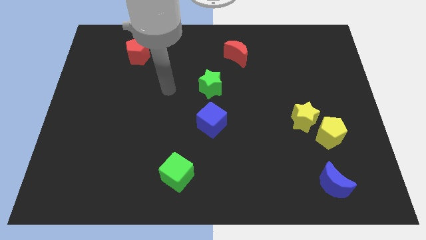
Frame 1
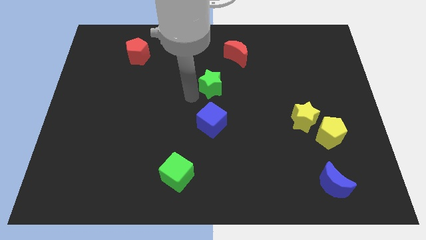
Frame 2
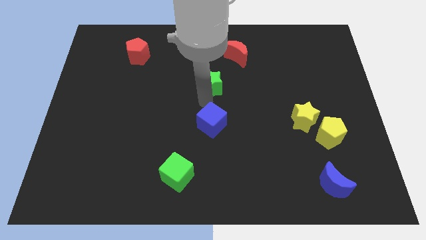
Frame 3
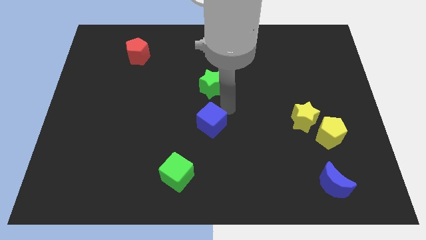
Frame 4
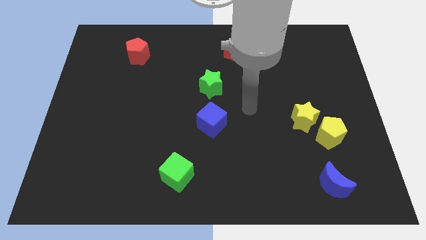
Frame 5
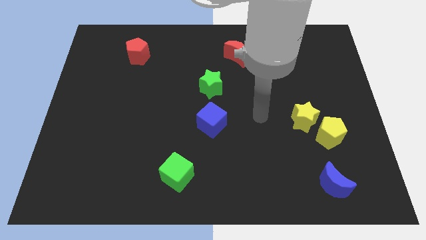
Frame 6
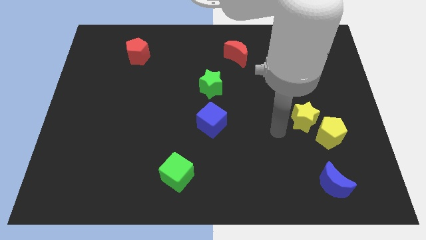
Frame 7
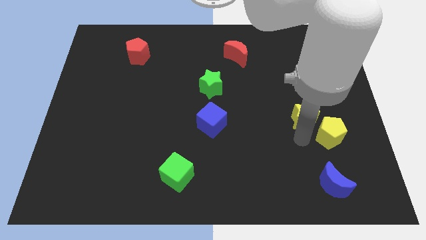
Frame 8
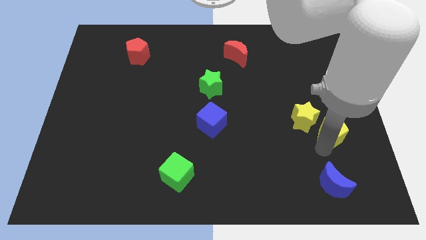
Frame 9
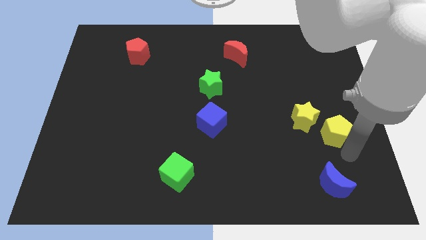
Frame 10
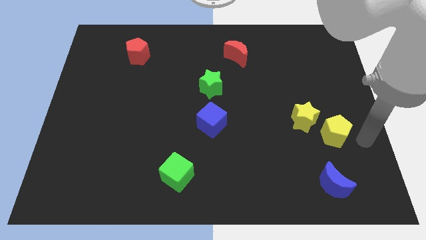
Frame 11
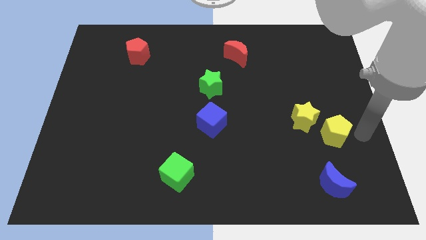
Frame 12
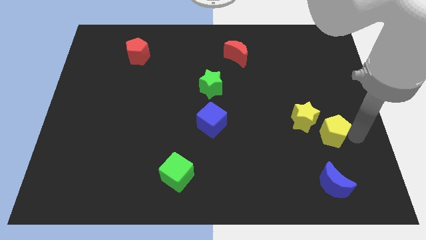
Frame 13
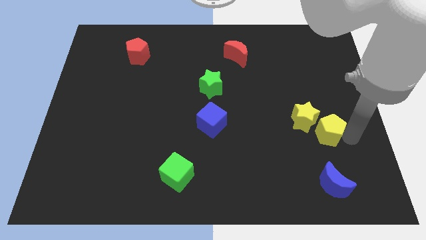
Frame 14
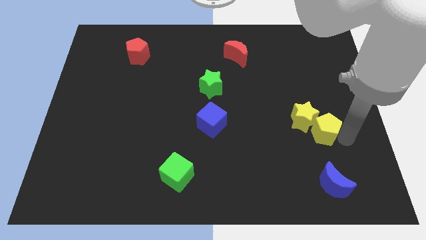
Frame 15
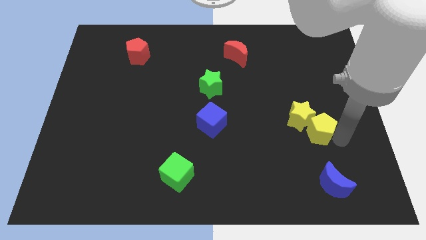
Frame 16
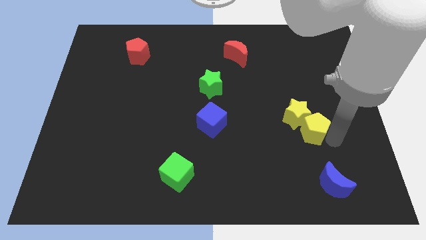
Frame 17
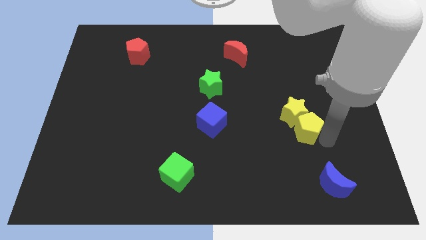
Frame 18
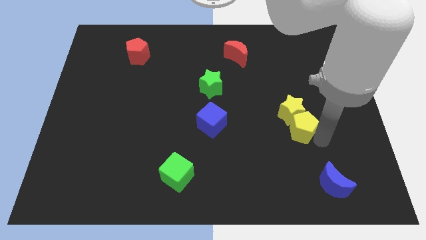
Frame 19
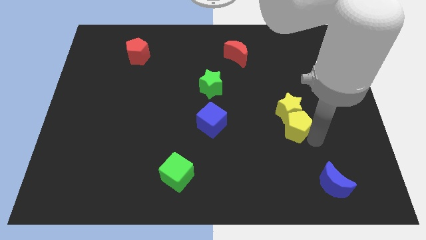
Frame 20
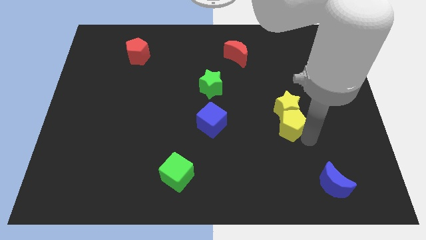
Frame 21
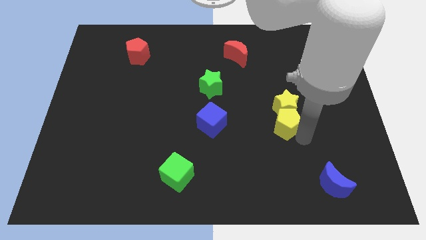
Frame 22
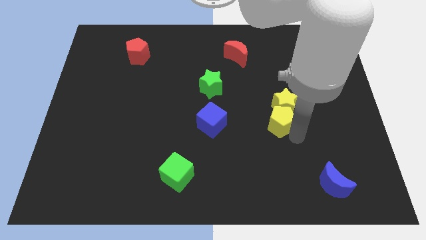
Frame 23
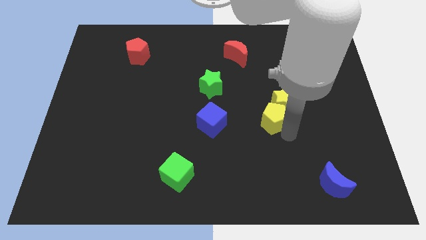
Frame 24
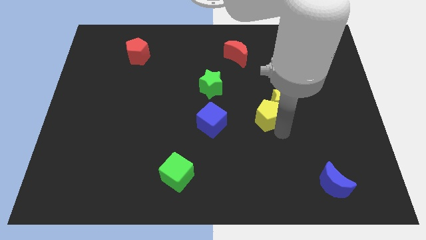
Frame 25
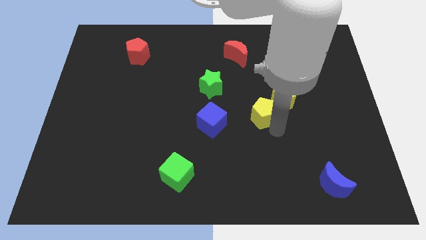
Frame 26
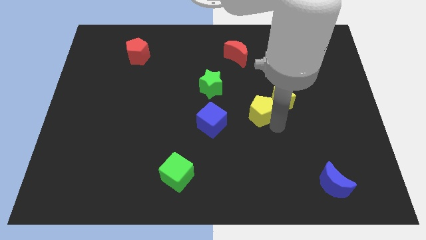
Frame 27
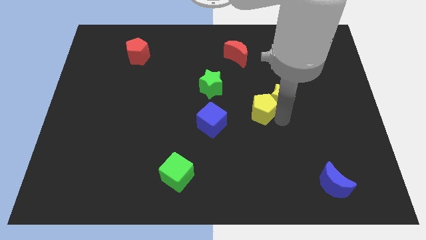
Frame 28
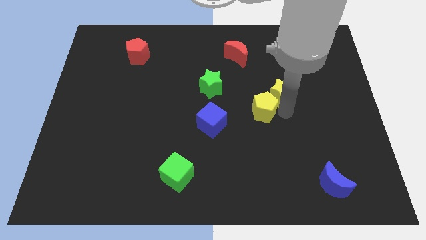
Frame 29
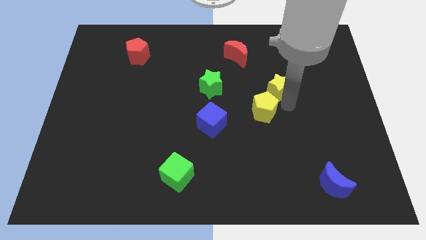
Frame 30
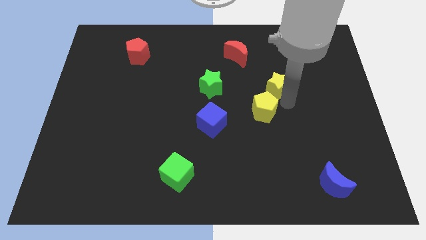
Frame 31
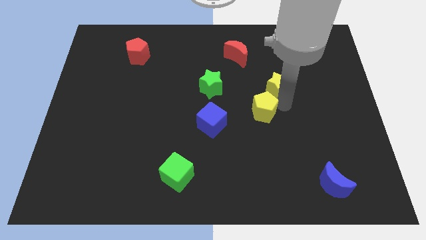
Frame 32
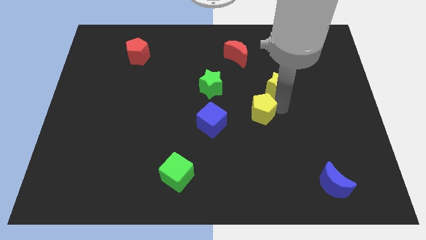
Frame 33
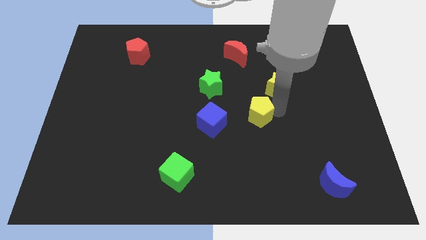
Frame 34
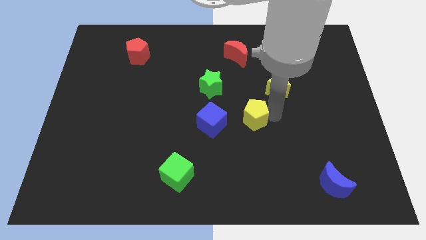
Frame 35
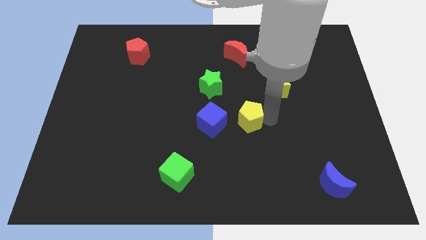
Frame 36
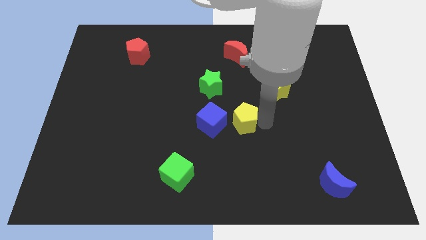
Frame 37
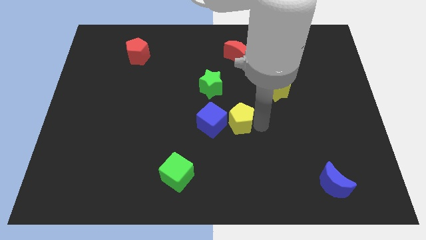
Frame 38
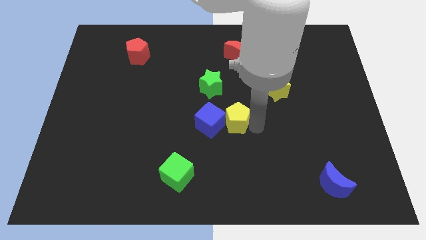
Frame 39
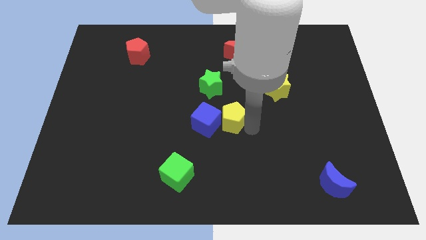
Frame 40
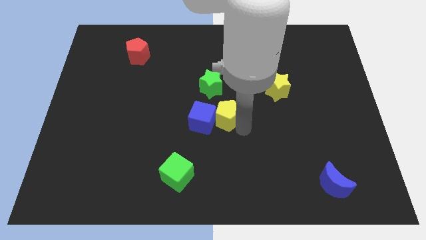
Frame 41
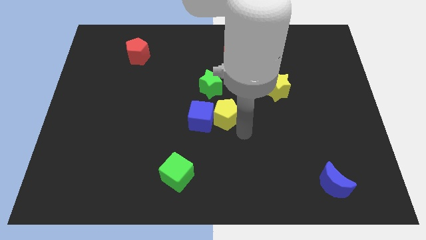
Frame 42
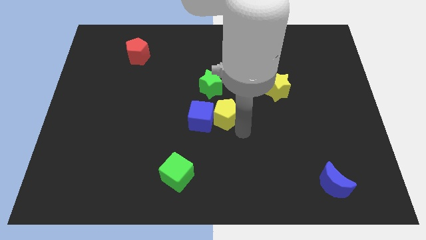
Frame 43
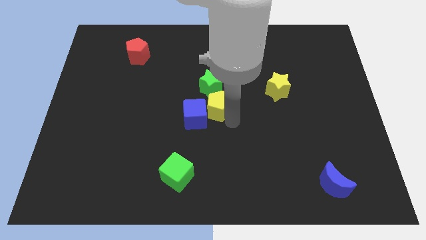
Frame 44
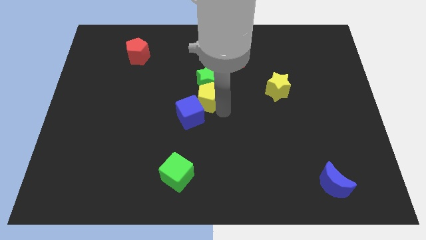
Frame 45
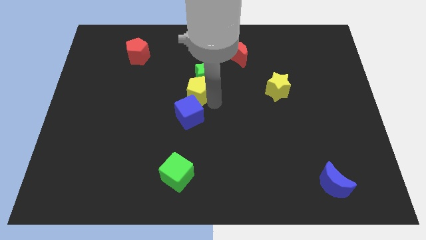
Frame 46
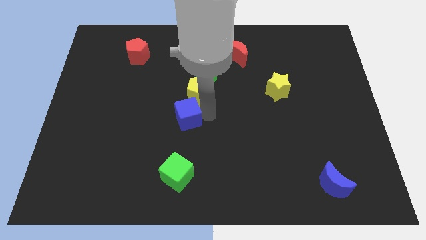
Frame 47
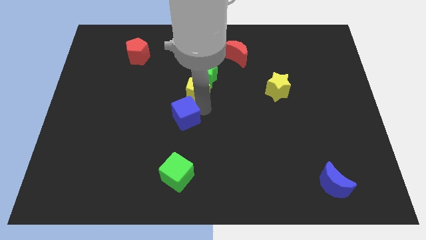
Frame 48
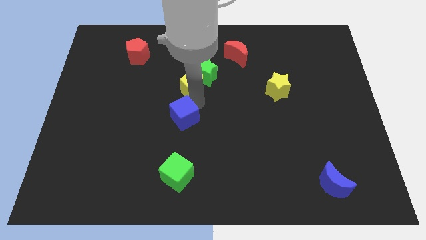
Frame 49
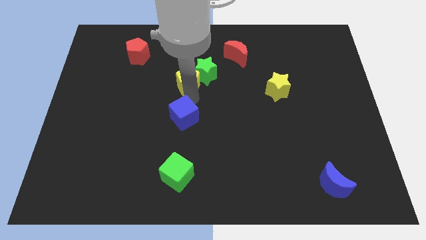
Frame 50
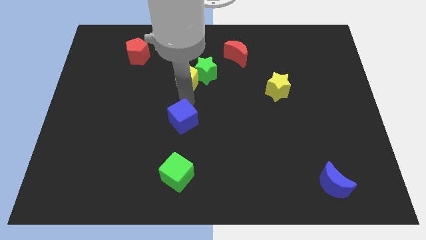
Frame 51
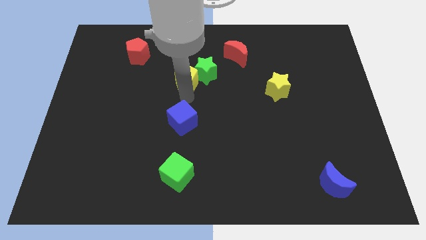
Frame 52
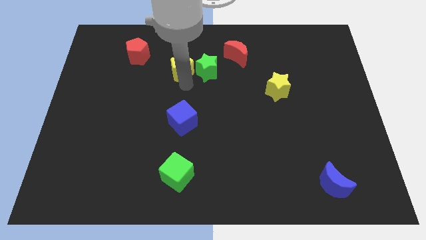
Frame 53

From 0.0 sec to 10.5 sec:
move the yellow pentagon to the top left side of the green star

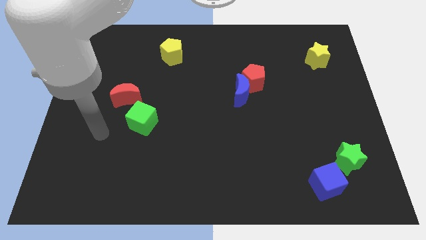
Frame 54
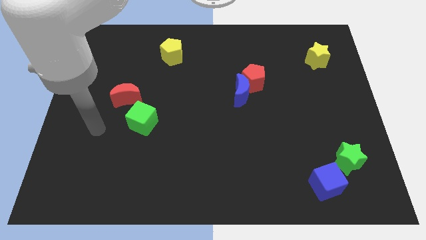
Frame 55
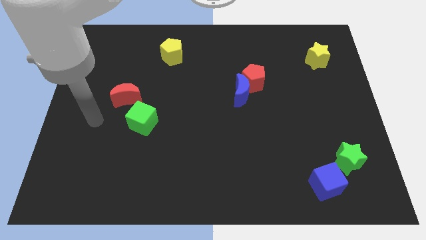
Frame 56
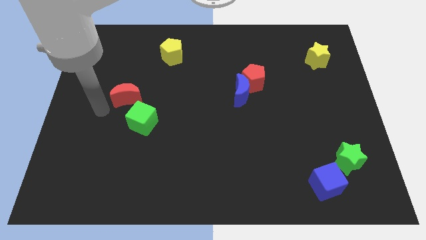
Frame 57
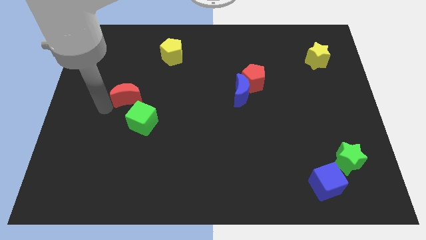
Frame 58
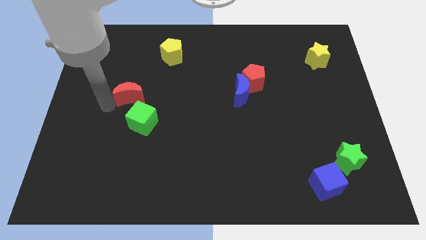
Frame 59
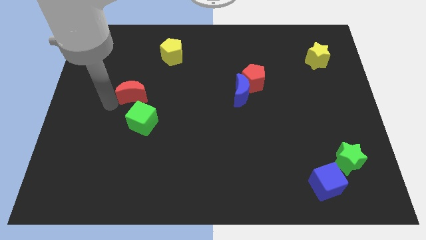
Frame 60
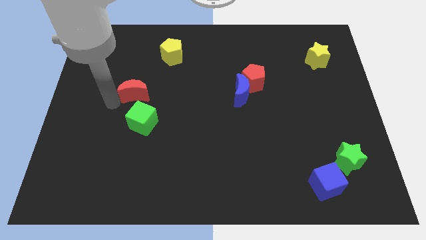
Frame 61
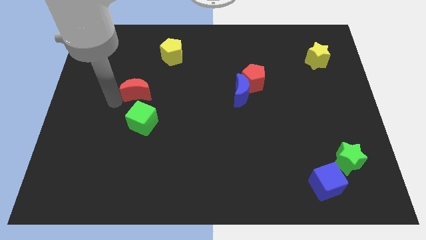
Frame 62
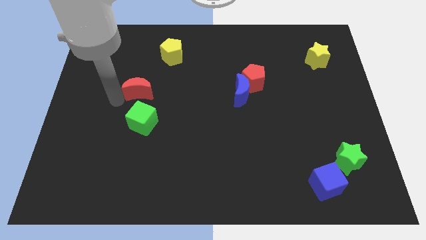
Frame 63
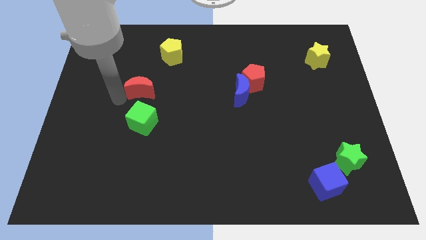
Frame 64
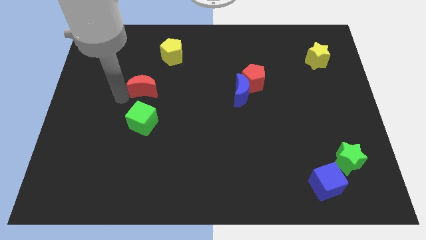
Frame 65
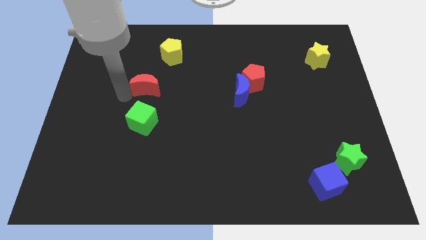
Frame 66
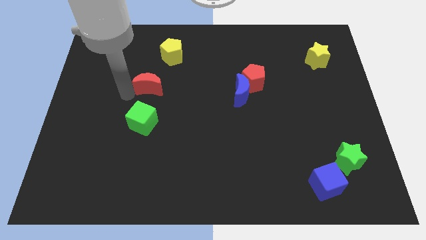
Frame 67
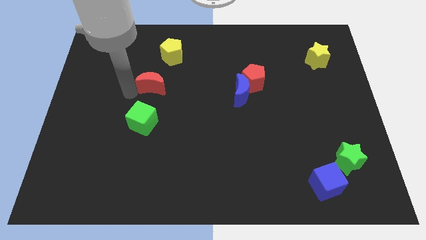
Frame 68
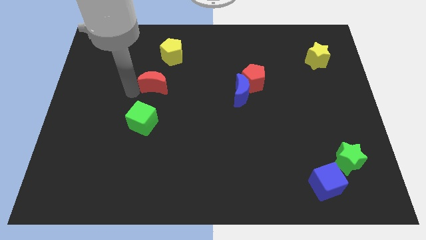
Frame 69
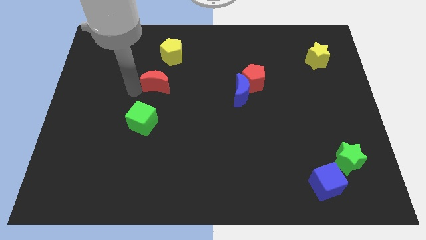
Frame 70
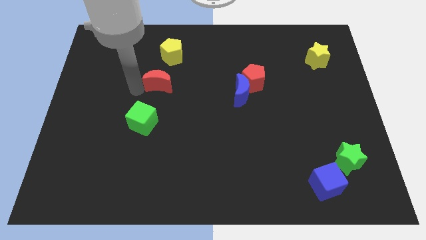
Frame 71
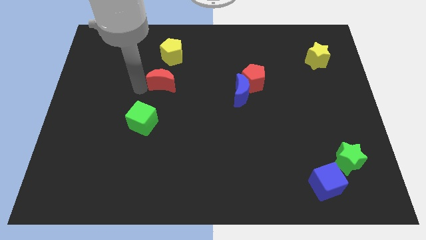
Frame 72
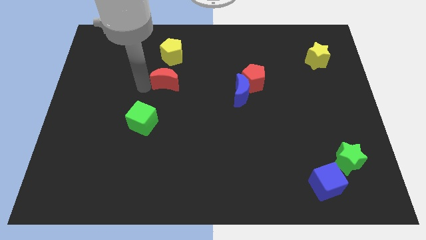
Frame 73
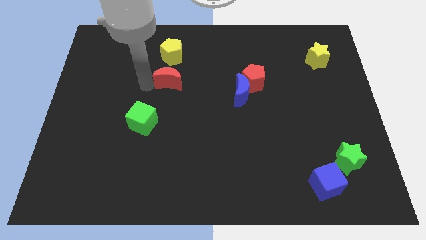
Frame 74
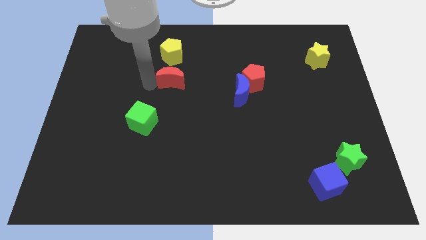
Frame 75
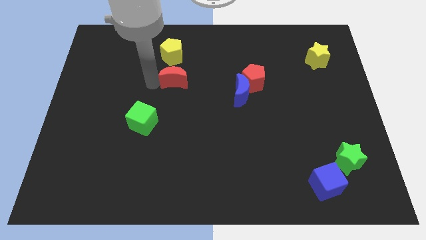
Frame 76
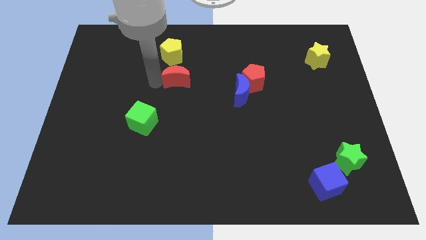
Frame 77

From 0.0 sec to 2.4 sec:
move the red moon diagonally down and to the right of the yellow pentagon
